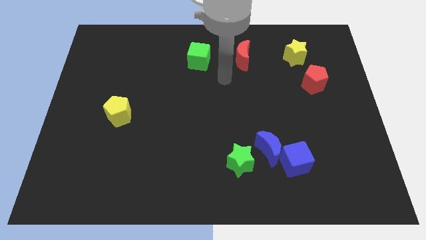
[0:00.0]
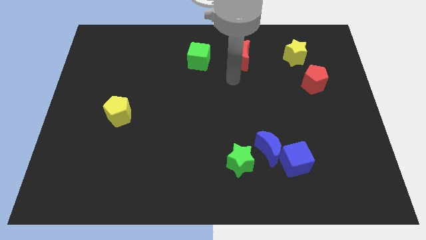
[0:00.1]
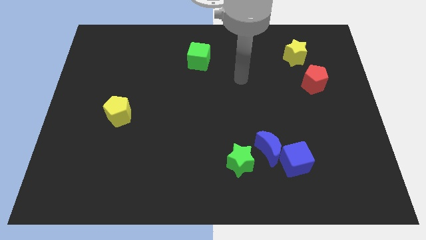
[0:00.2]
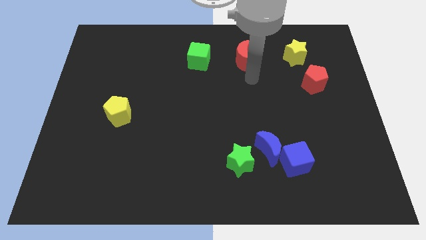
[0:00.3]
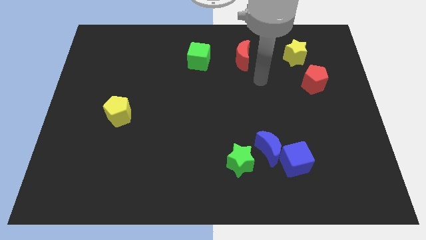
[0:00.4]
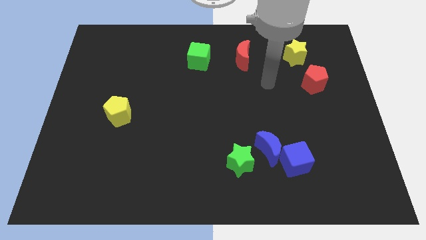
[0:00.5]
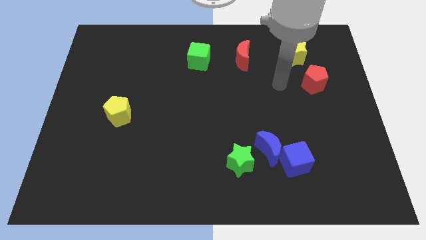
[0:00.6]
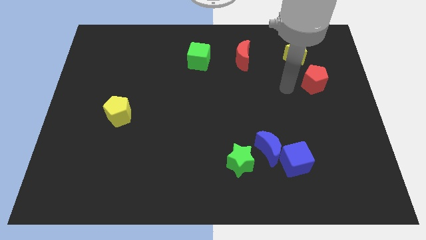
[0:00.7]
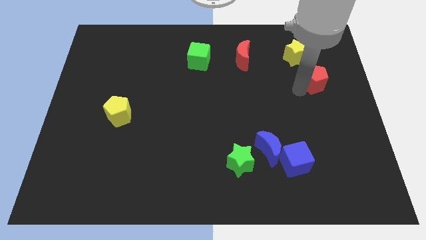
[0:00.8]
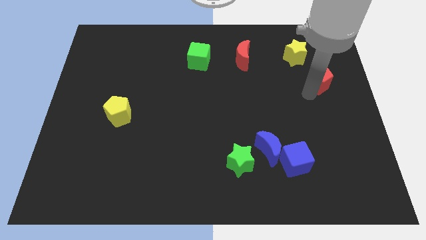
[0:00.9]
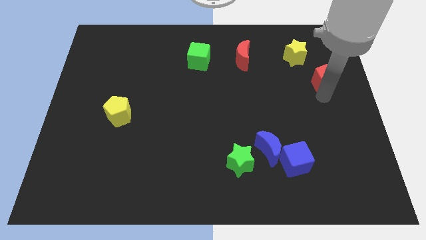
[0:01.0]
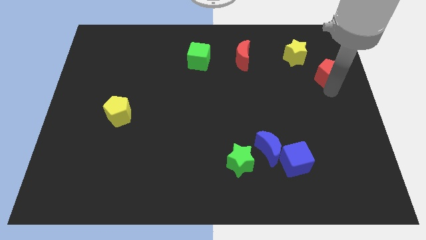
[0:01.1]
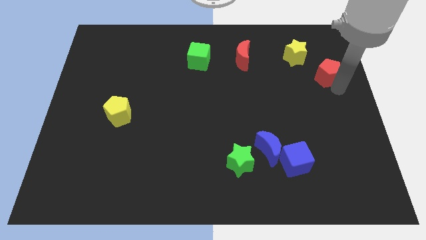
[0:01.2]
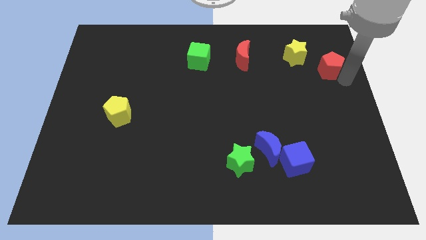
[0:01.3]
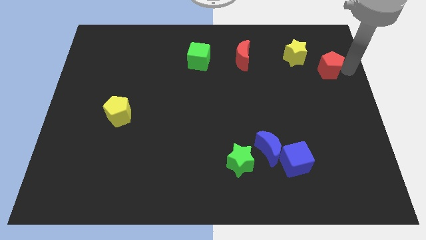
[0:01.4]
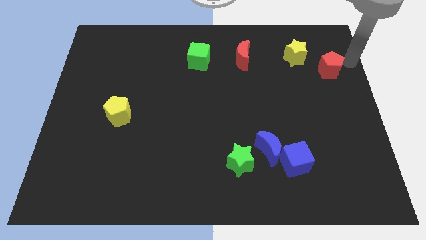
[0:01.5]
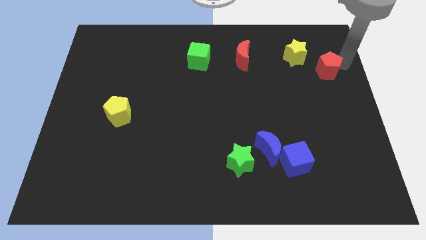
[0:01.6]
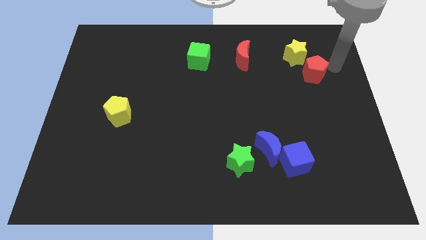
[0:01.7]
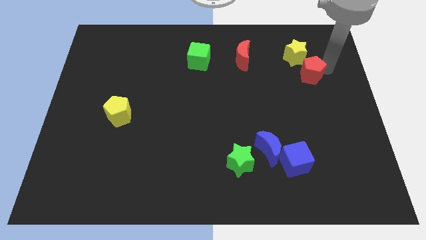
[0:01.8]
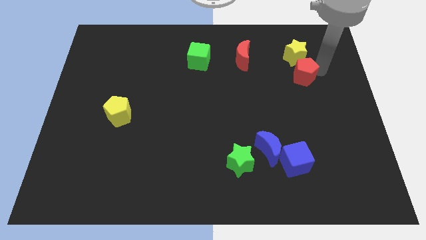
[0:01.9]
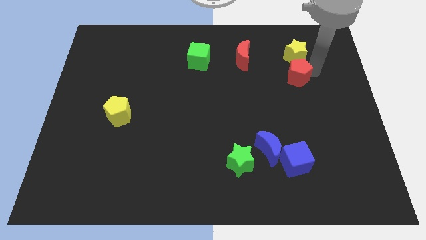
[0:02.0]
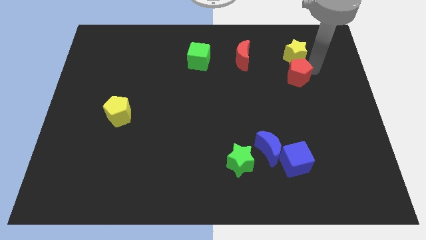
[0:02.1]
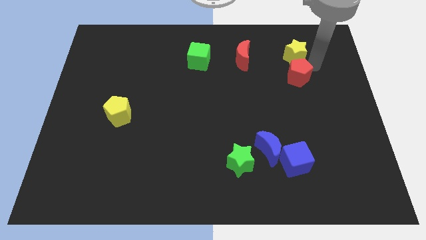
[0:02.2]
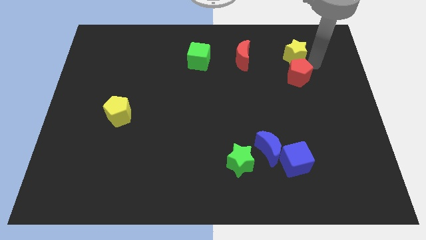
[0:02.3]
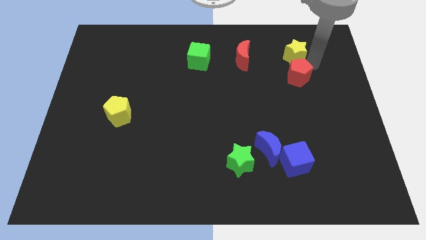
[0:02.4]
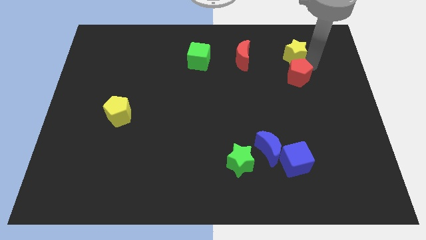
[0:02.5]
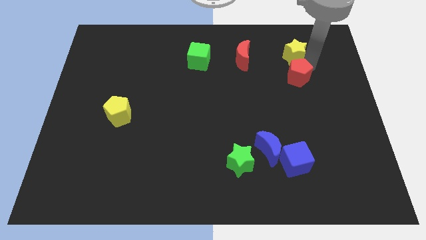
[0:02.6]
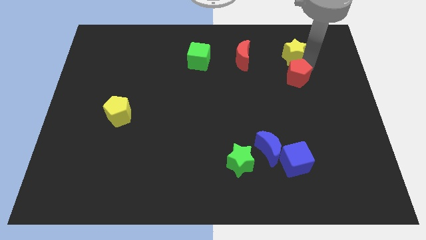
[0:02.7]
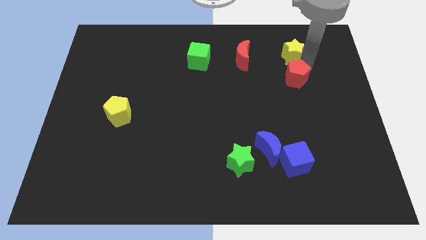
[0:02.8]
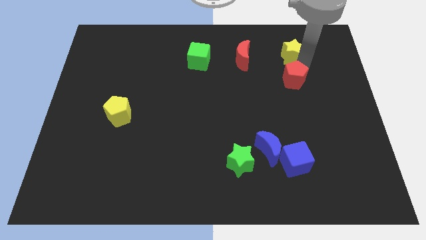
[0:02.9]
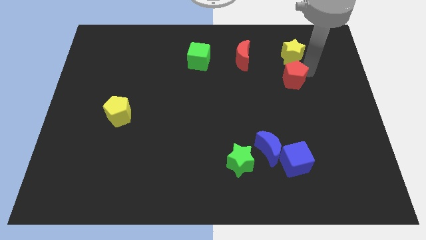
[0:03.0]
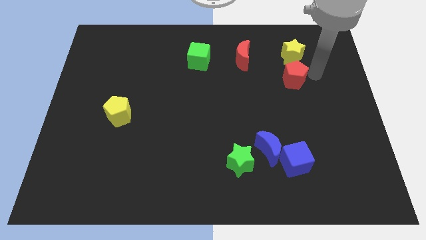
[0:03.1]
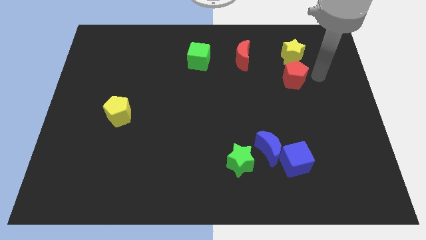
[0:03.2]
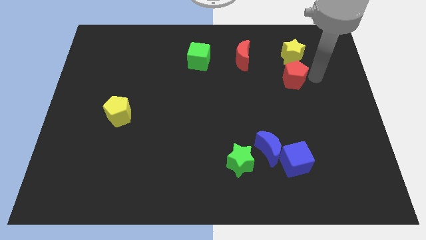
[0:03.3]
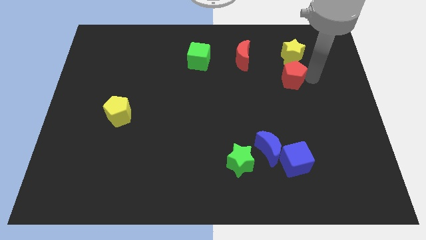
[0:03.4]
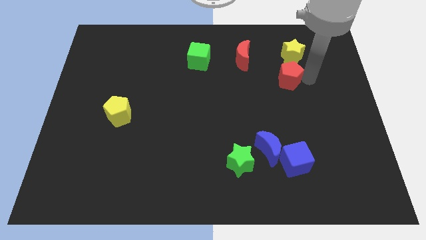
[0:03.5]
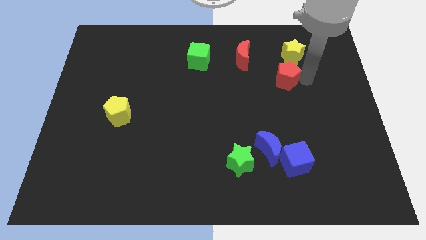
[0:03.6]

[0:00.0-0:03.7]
slide the red pentagon to the left a bit

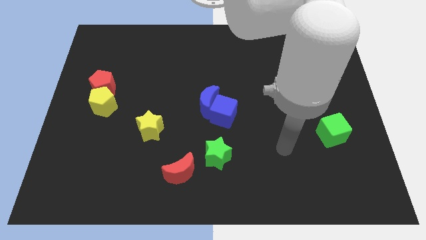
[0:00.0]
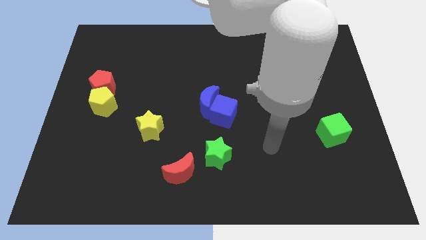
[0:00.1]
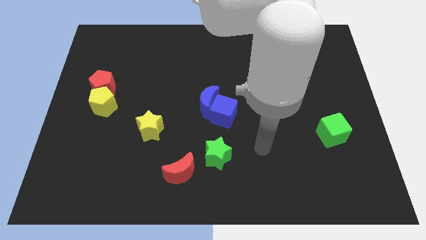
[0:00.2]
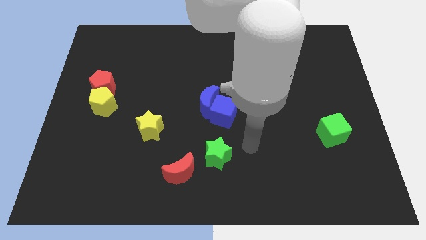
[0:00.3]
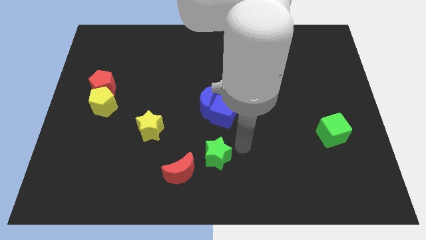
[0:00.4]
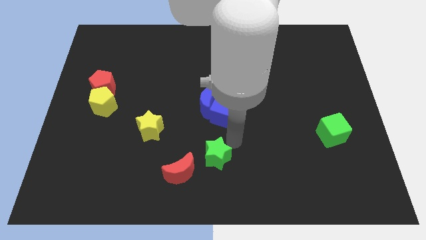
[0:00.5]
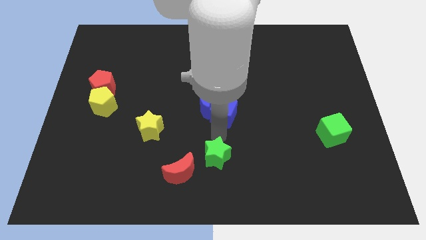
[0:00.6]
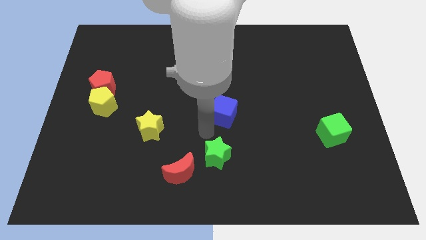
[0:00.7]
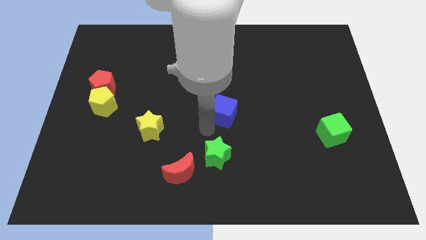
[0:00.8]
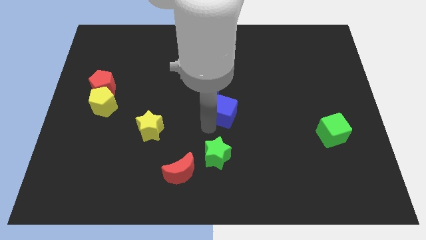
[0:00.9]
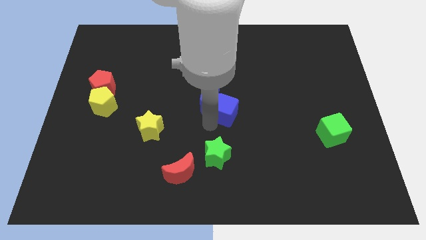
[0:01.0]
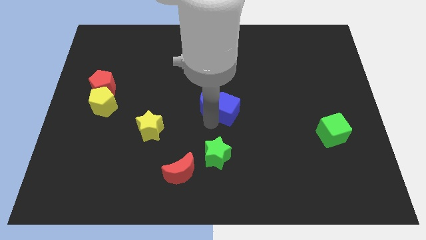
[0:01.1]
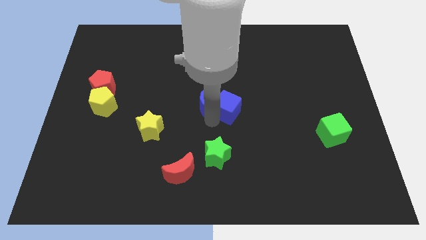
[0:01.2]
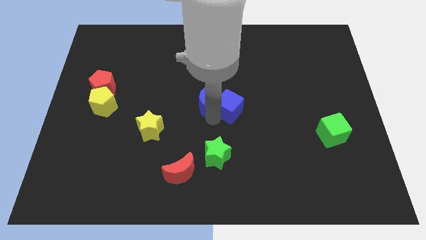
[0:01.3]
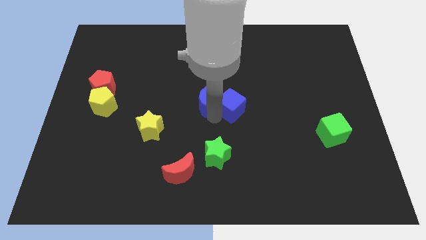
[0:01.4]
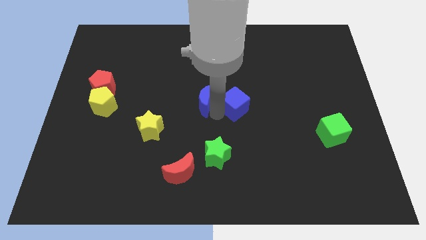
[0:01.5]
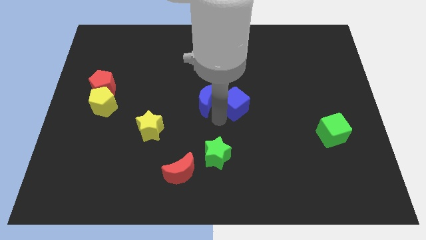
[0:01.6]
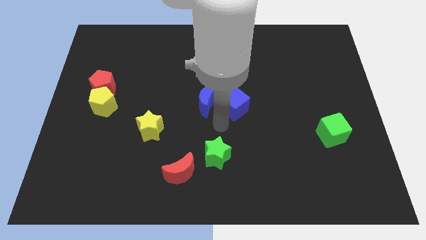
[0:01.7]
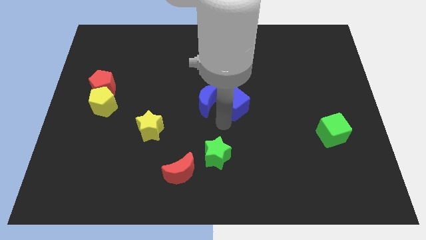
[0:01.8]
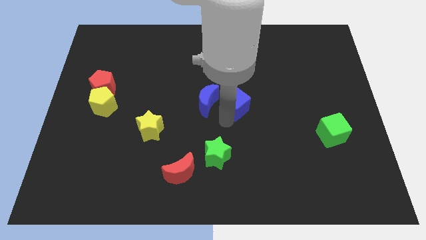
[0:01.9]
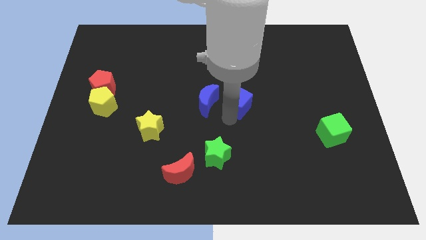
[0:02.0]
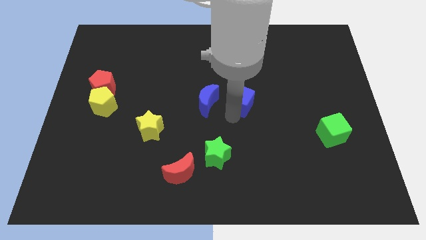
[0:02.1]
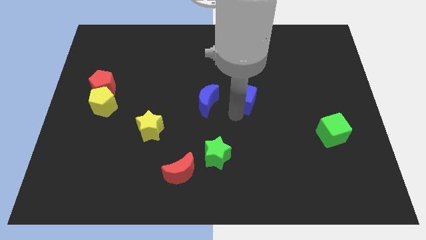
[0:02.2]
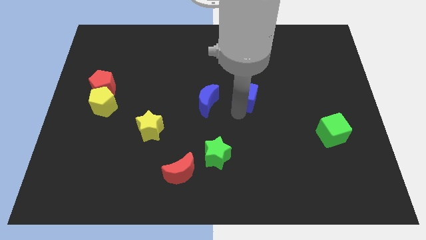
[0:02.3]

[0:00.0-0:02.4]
slightly push the blue cube upwards and right diagonally

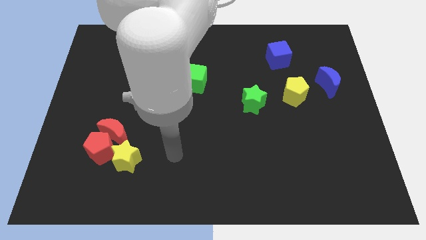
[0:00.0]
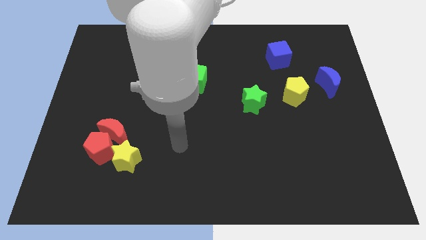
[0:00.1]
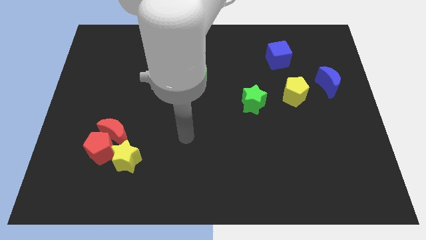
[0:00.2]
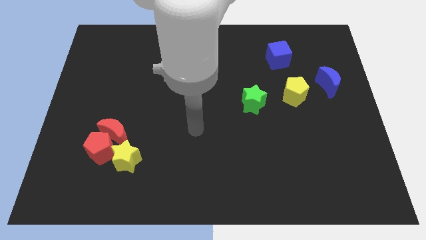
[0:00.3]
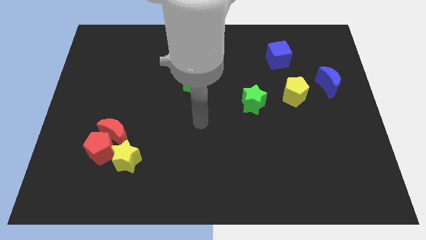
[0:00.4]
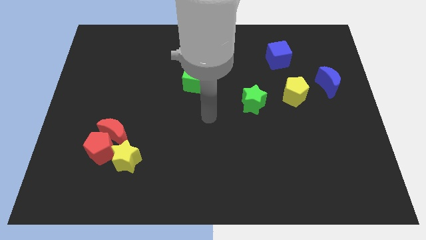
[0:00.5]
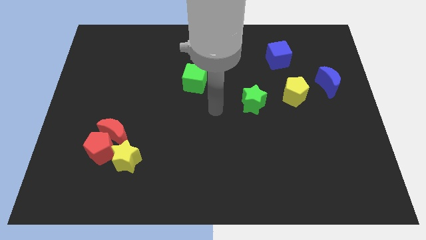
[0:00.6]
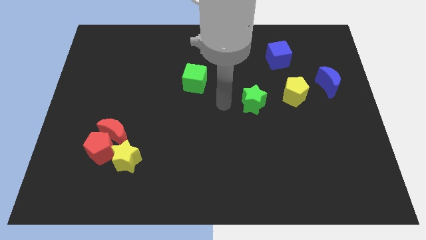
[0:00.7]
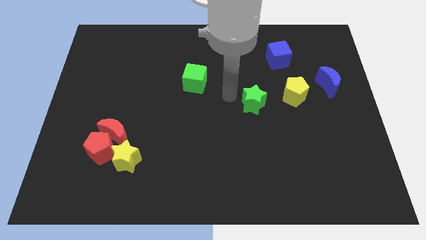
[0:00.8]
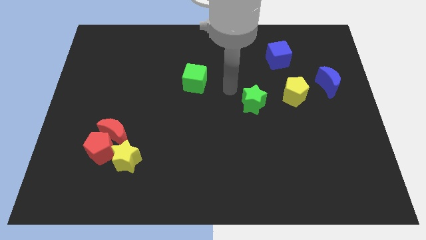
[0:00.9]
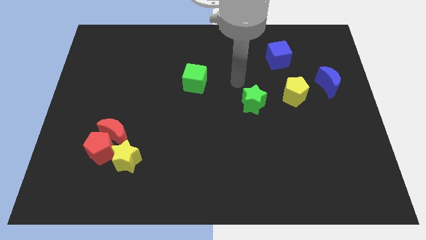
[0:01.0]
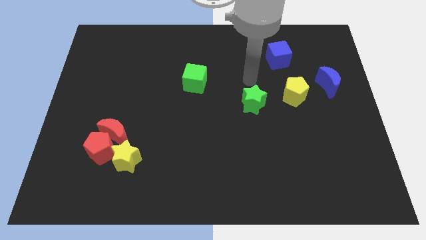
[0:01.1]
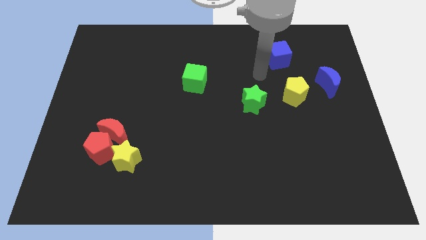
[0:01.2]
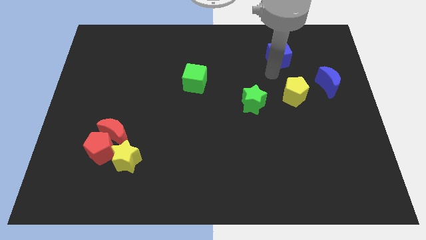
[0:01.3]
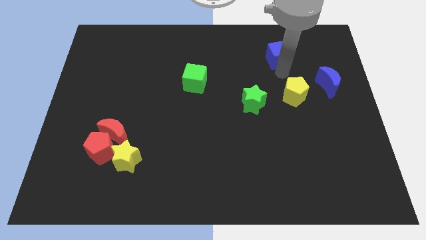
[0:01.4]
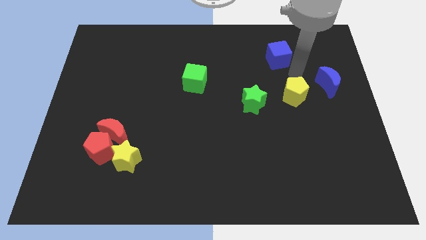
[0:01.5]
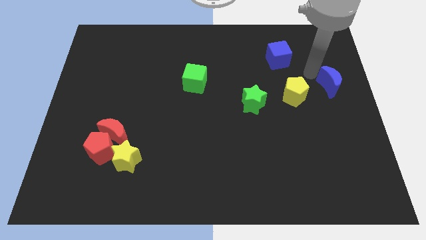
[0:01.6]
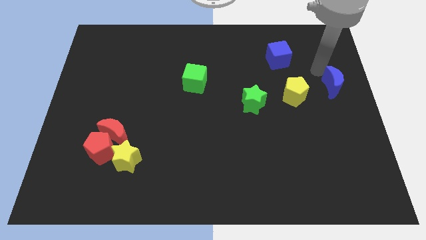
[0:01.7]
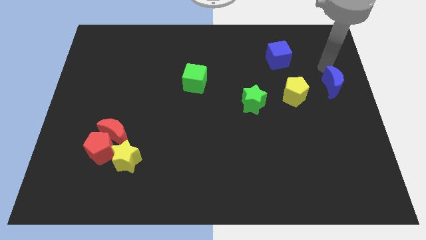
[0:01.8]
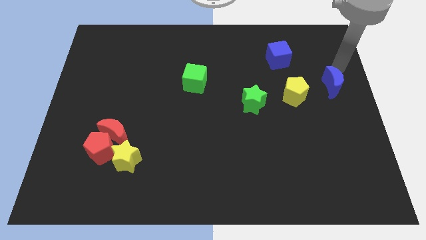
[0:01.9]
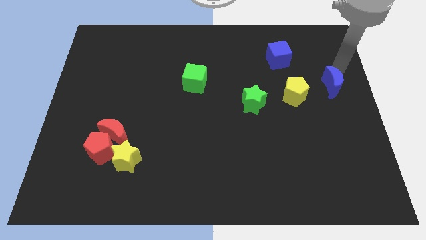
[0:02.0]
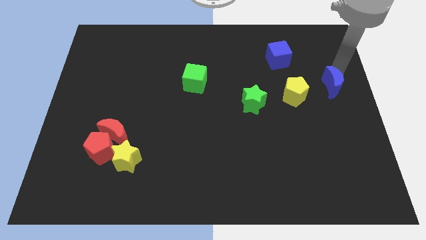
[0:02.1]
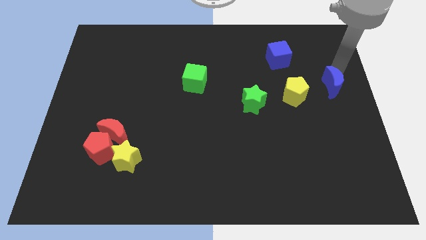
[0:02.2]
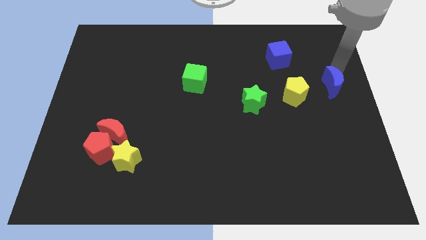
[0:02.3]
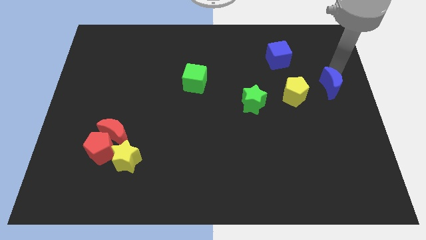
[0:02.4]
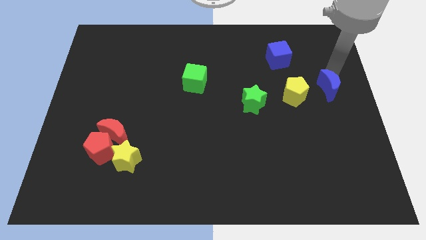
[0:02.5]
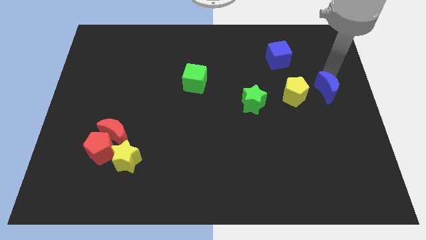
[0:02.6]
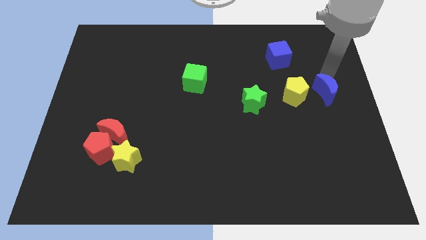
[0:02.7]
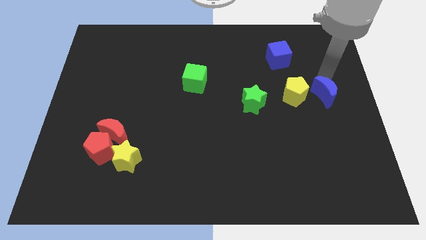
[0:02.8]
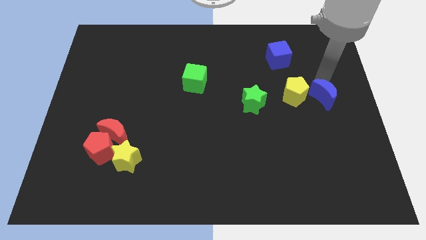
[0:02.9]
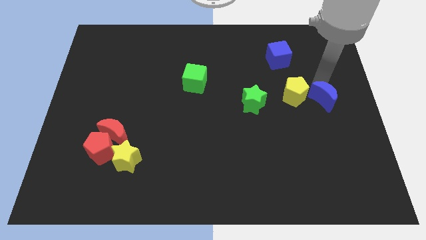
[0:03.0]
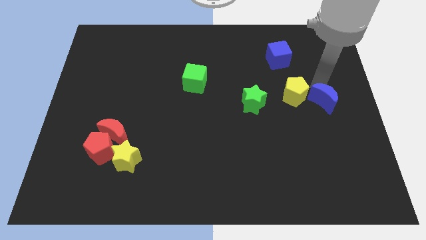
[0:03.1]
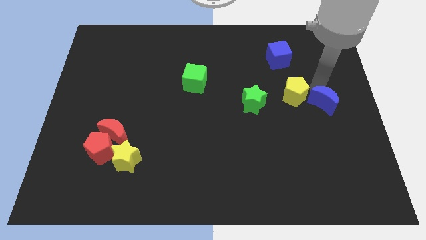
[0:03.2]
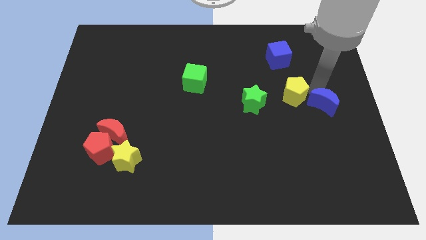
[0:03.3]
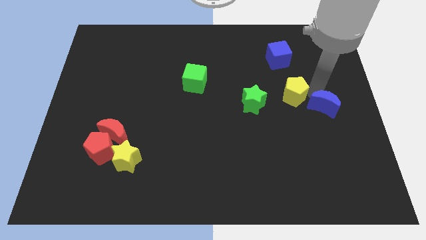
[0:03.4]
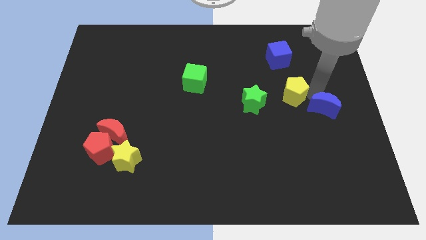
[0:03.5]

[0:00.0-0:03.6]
slightly push the blue moon downwards
